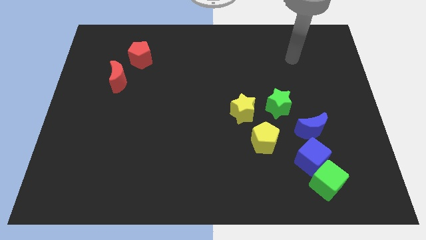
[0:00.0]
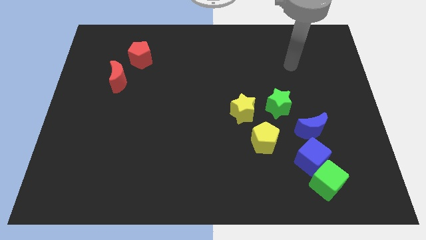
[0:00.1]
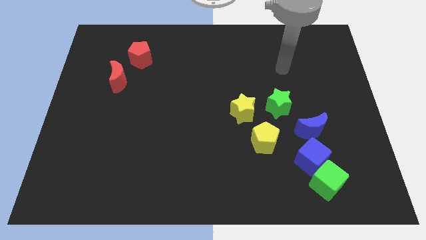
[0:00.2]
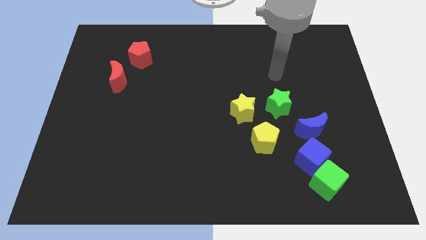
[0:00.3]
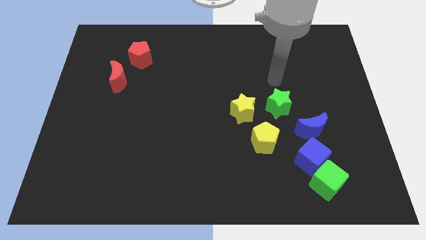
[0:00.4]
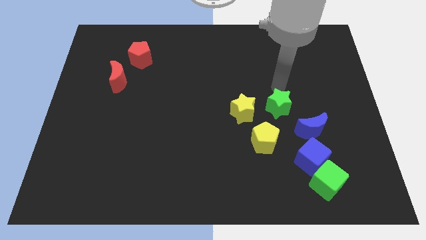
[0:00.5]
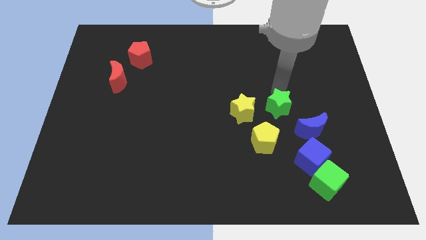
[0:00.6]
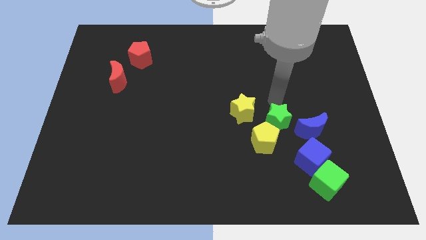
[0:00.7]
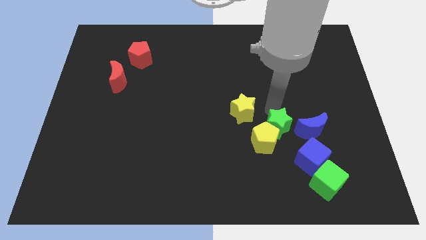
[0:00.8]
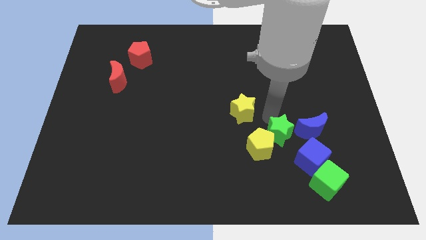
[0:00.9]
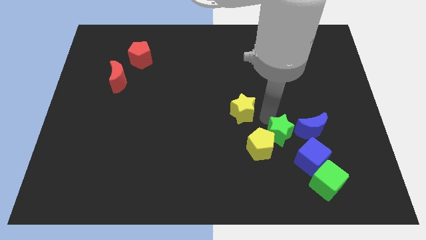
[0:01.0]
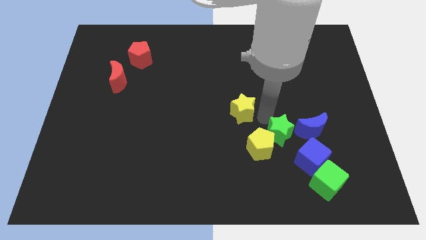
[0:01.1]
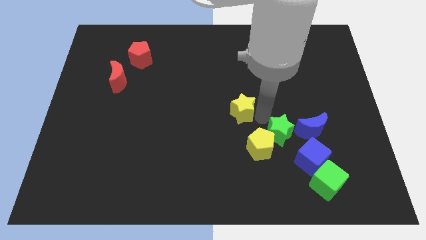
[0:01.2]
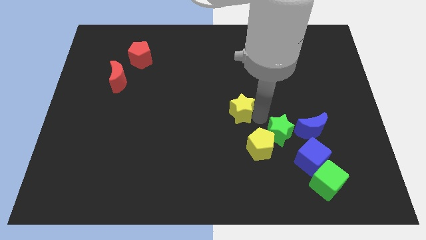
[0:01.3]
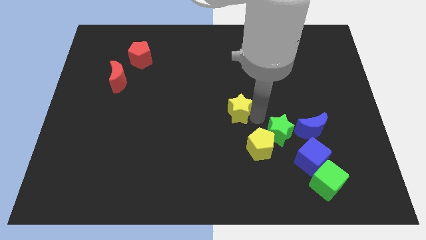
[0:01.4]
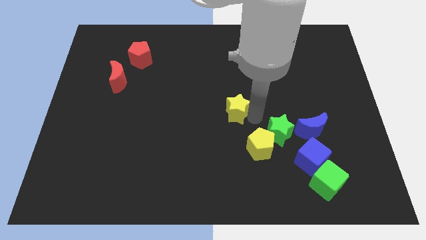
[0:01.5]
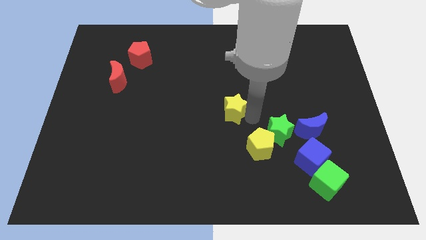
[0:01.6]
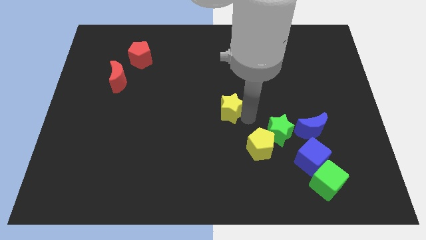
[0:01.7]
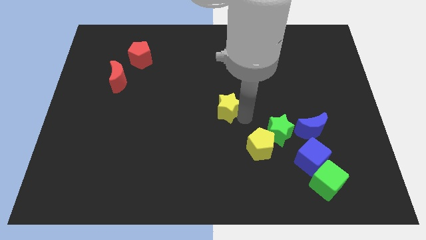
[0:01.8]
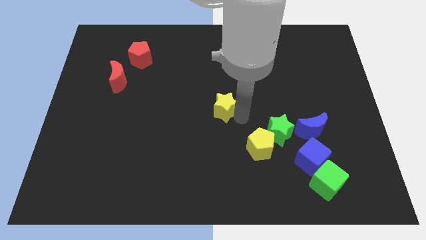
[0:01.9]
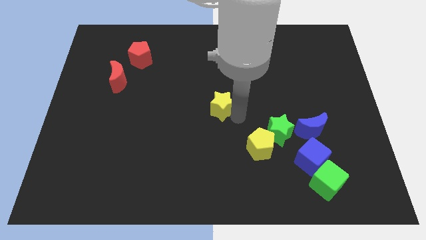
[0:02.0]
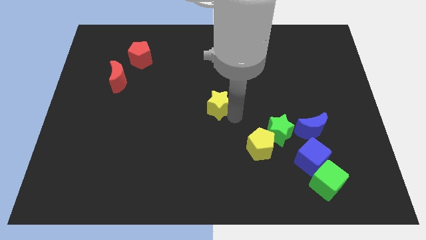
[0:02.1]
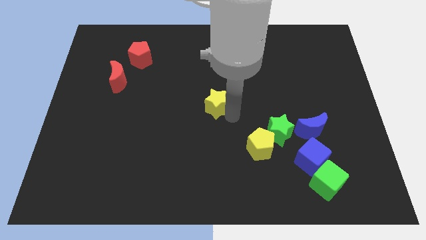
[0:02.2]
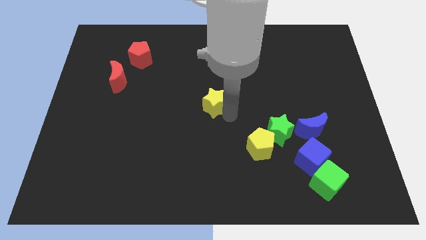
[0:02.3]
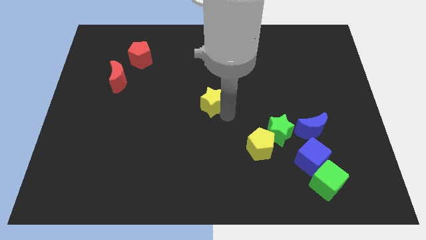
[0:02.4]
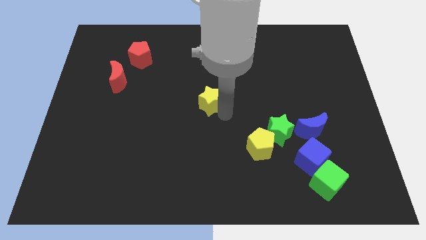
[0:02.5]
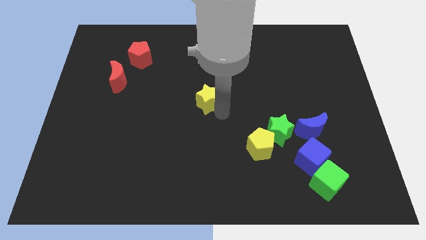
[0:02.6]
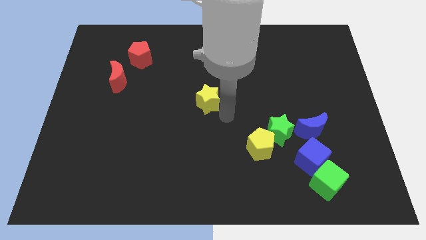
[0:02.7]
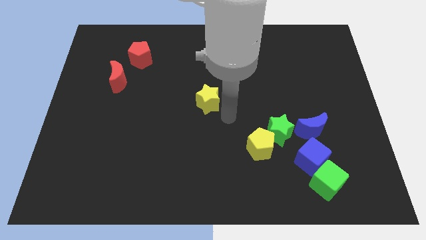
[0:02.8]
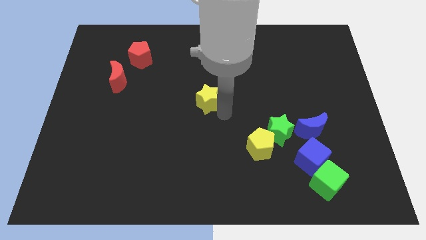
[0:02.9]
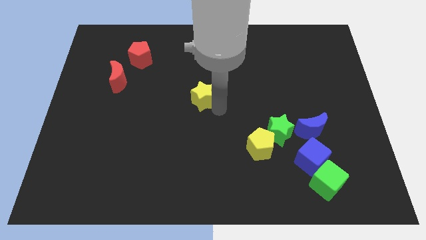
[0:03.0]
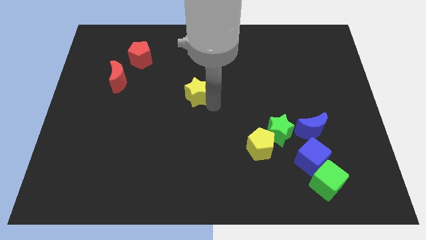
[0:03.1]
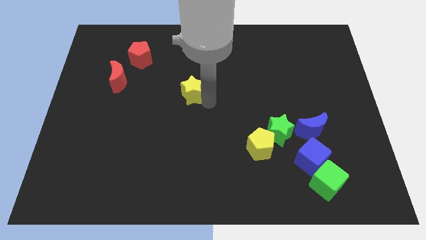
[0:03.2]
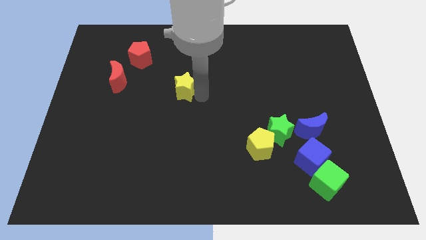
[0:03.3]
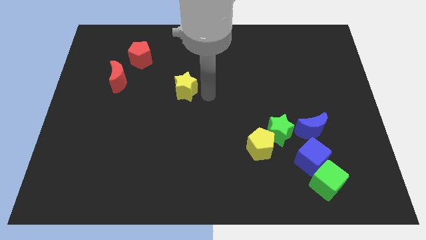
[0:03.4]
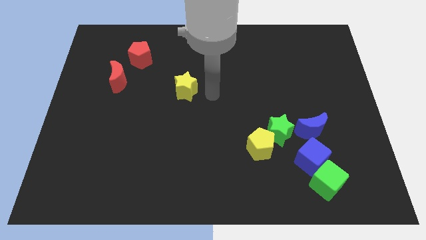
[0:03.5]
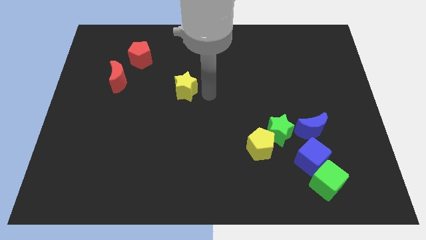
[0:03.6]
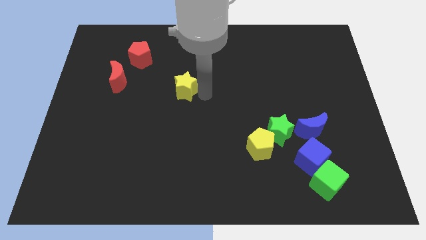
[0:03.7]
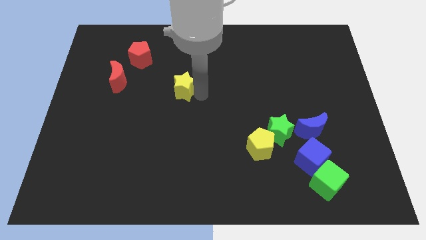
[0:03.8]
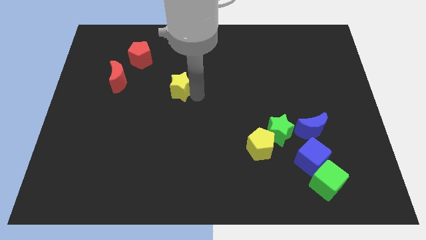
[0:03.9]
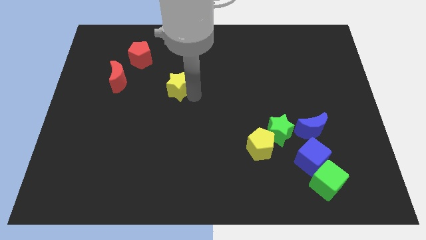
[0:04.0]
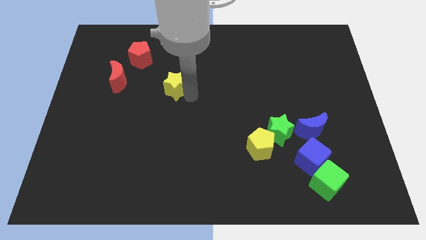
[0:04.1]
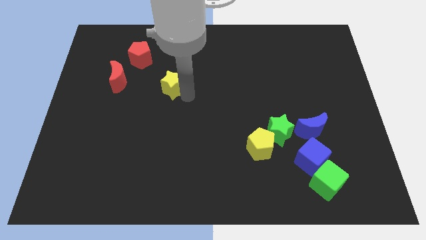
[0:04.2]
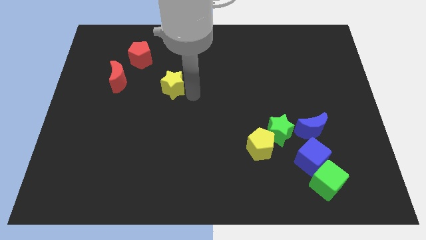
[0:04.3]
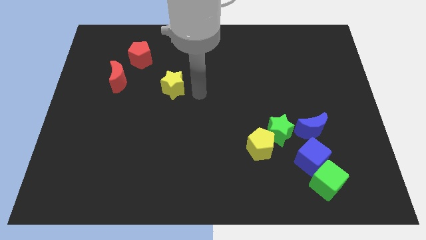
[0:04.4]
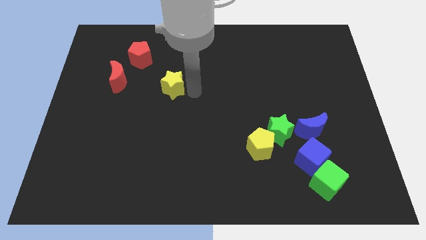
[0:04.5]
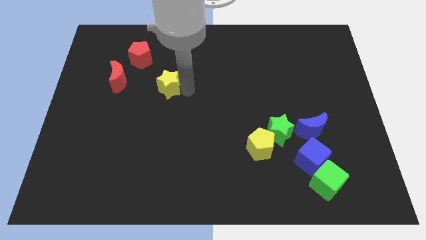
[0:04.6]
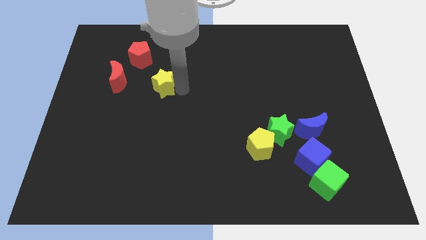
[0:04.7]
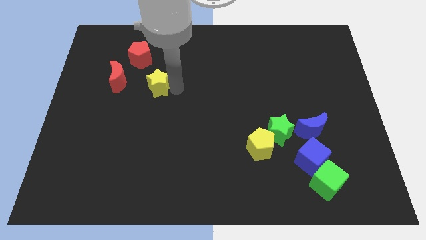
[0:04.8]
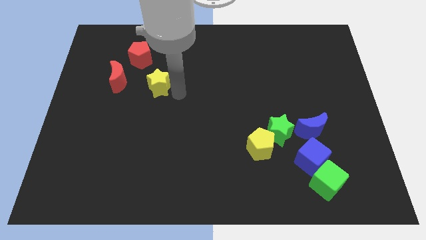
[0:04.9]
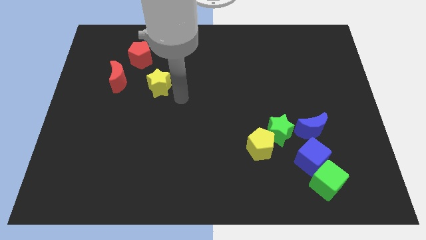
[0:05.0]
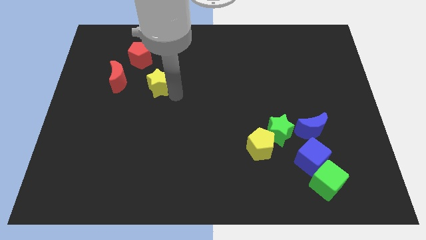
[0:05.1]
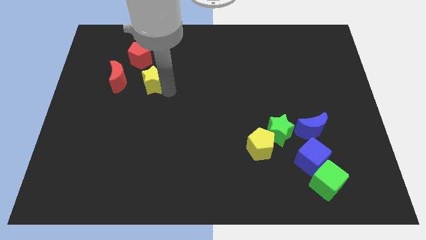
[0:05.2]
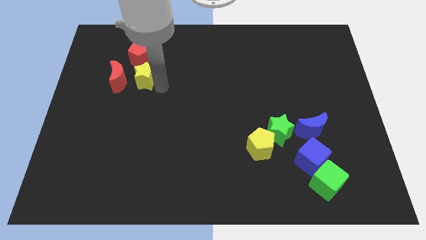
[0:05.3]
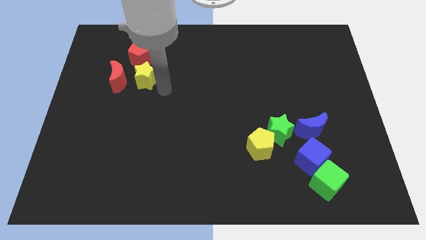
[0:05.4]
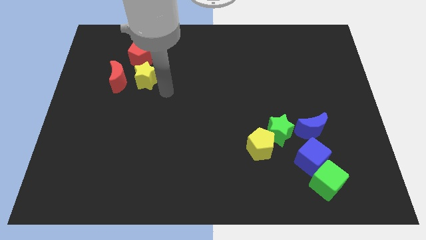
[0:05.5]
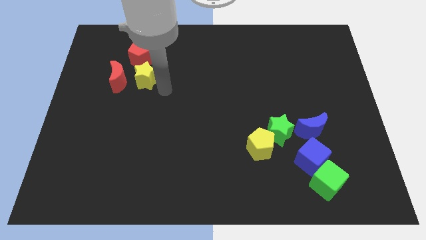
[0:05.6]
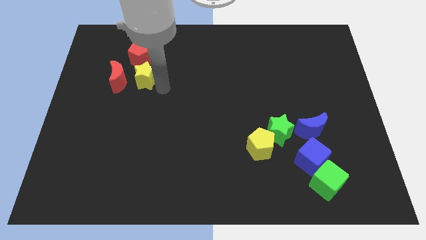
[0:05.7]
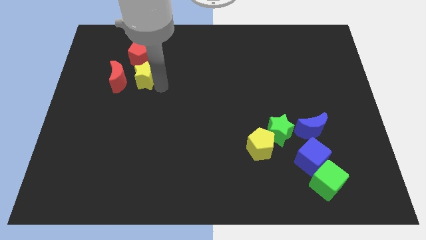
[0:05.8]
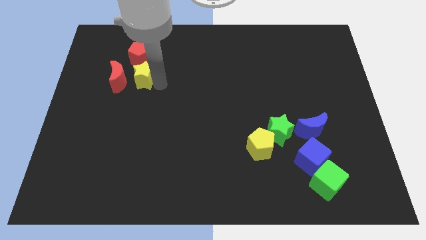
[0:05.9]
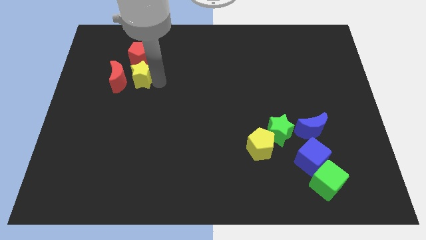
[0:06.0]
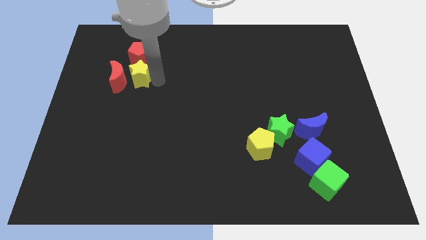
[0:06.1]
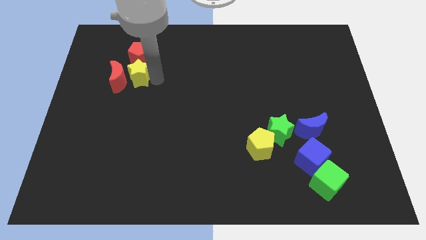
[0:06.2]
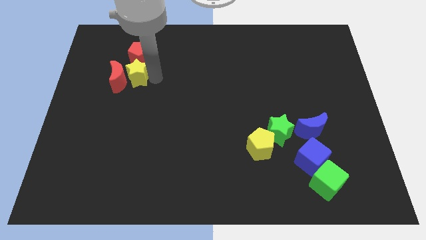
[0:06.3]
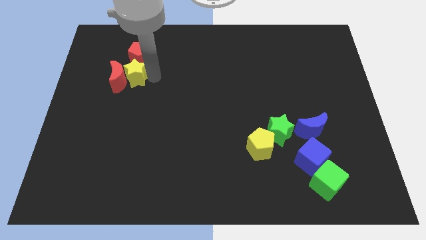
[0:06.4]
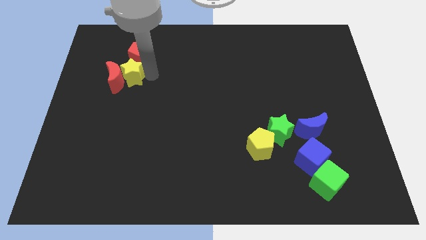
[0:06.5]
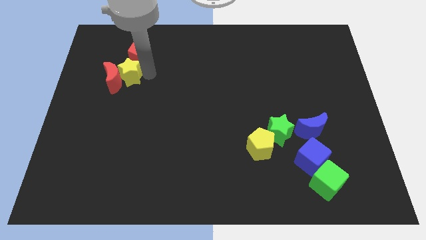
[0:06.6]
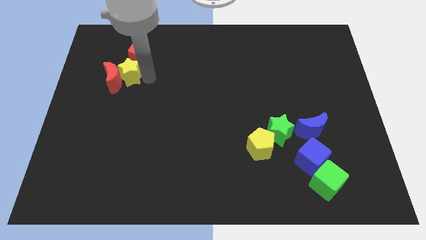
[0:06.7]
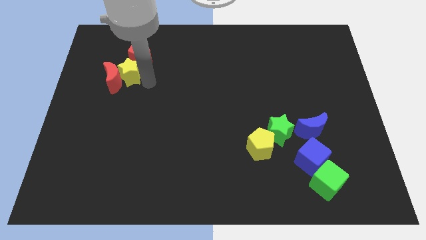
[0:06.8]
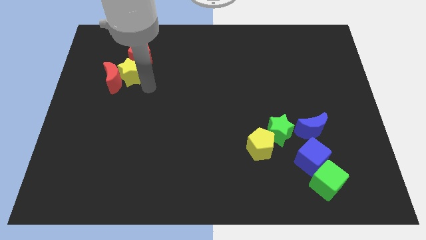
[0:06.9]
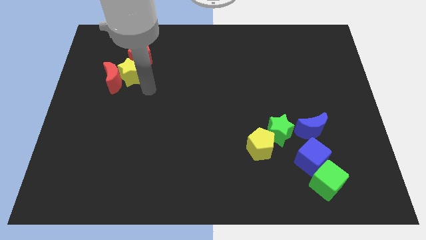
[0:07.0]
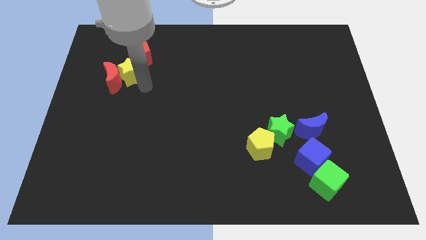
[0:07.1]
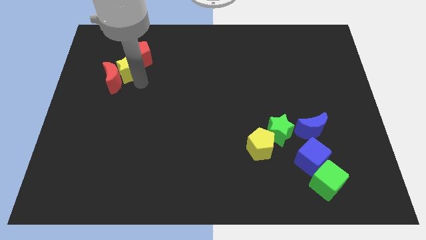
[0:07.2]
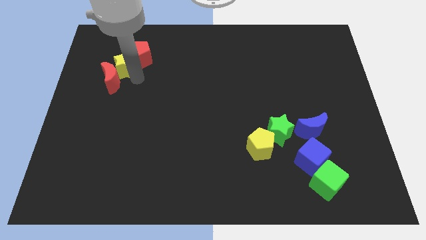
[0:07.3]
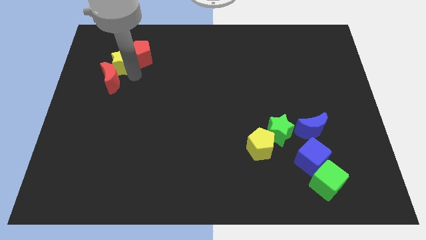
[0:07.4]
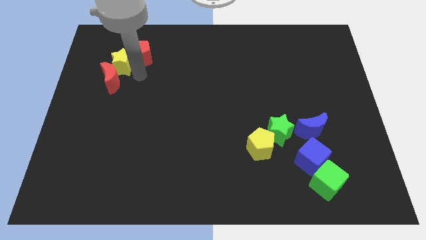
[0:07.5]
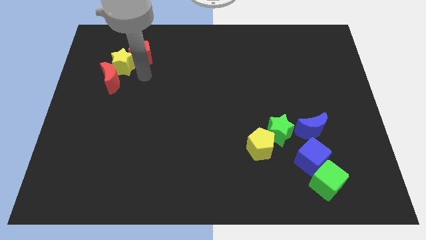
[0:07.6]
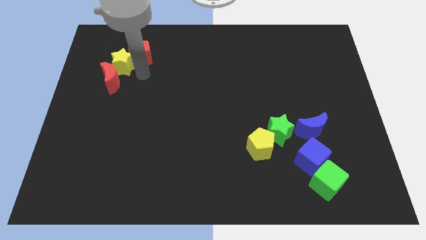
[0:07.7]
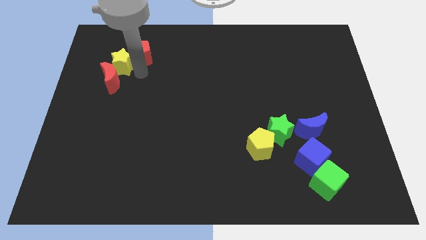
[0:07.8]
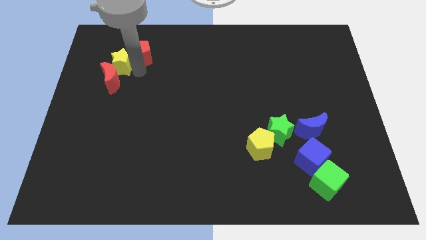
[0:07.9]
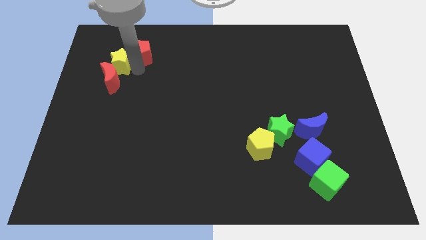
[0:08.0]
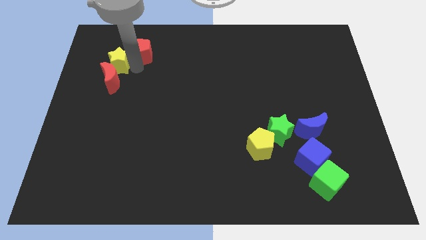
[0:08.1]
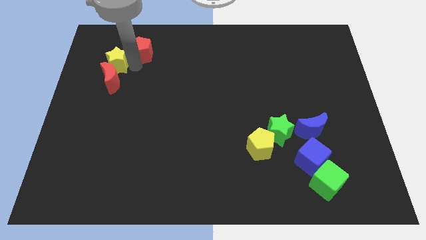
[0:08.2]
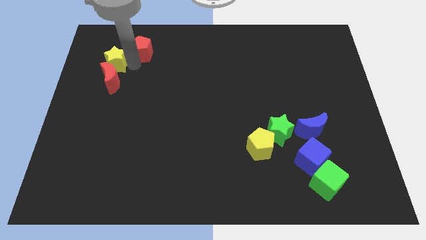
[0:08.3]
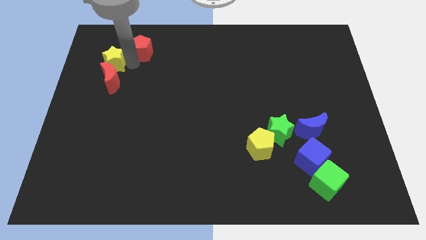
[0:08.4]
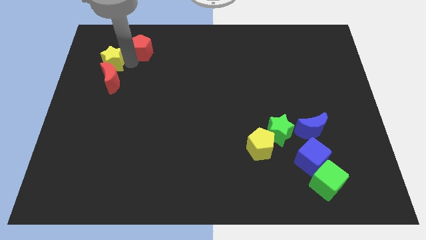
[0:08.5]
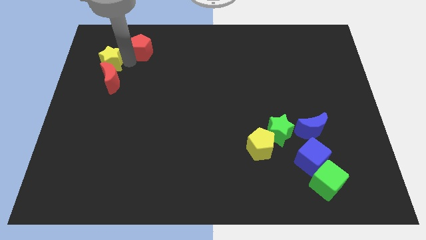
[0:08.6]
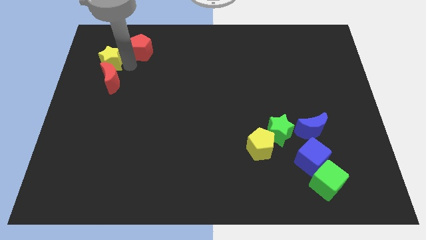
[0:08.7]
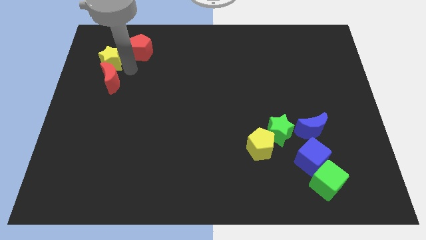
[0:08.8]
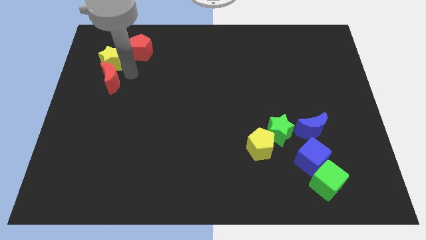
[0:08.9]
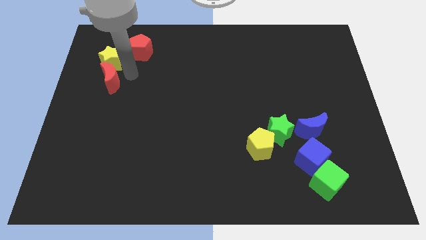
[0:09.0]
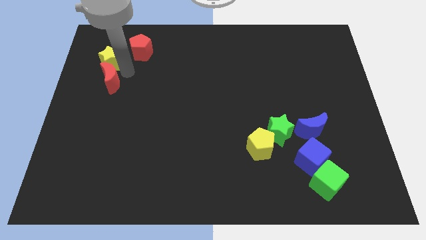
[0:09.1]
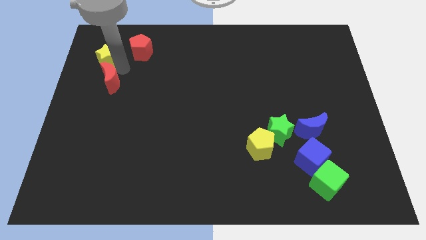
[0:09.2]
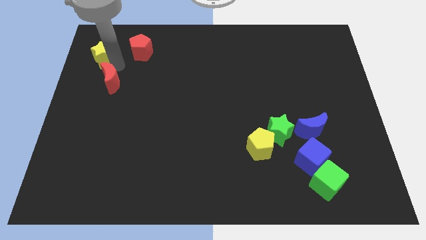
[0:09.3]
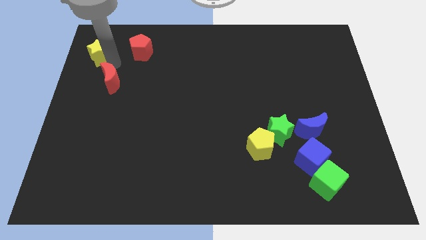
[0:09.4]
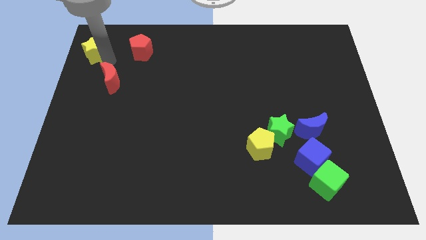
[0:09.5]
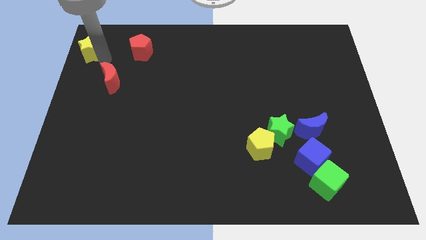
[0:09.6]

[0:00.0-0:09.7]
move the yellow star to the top left of the board
